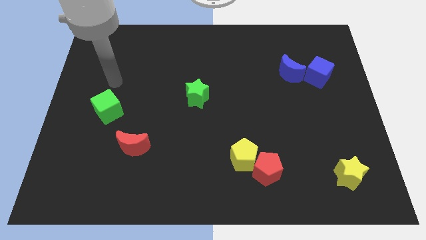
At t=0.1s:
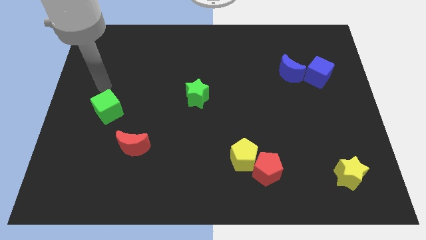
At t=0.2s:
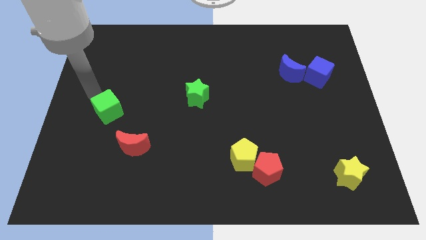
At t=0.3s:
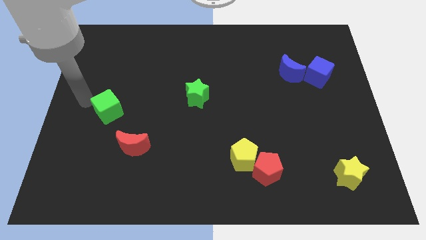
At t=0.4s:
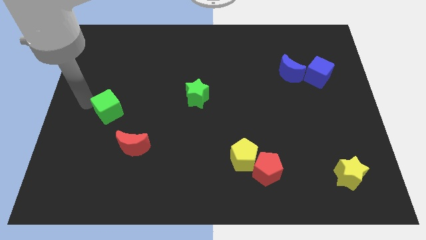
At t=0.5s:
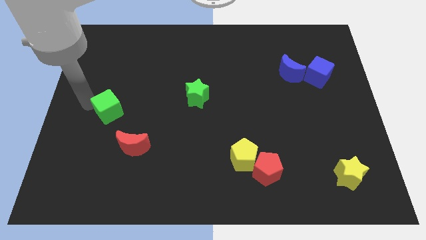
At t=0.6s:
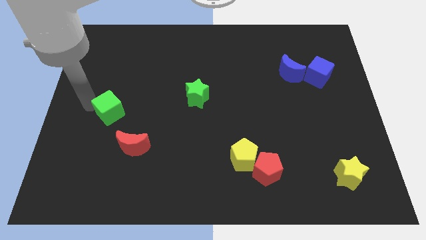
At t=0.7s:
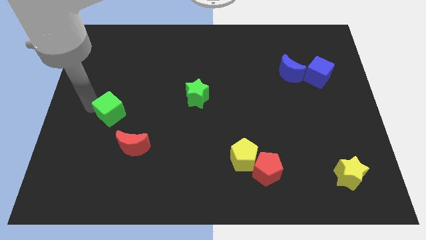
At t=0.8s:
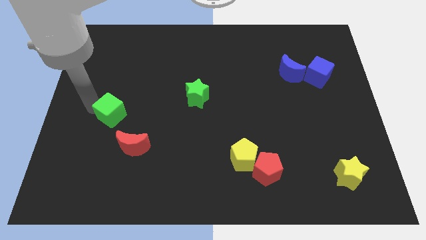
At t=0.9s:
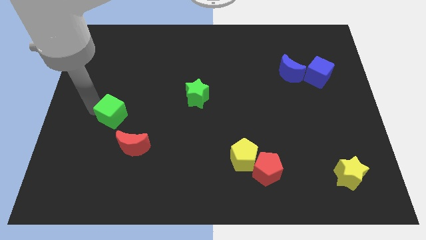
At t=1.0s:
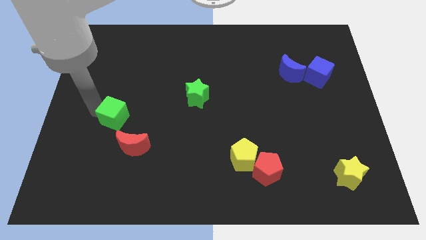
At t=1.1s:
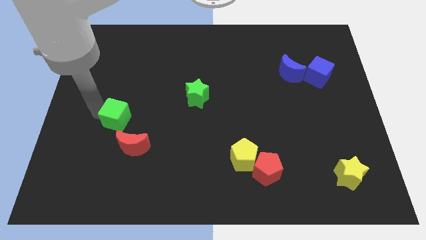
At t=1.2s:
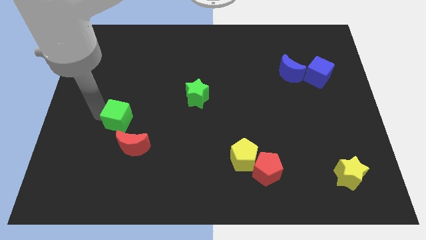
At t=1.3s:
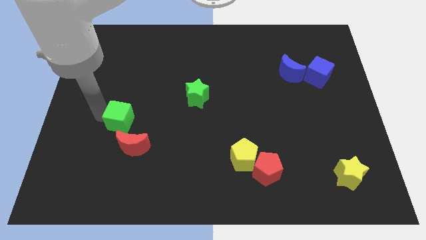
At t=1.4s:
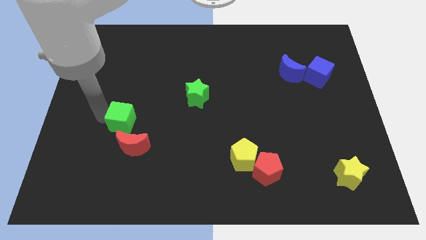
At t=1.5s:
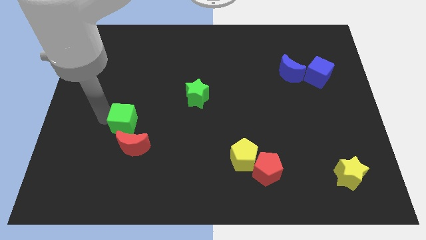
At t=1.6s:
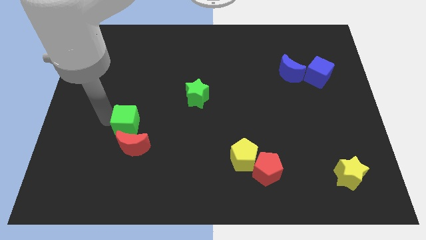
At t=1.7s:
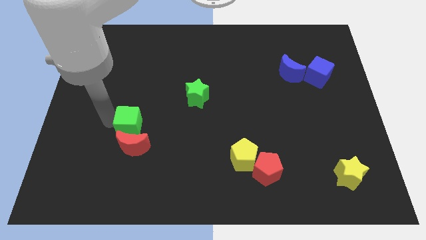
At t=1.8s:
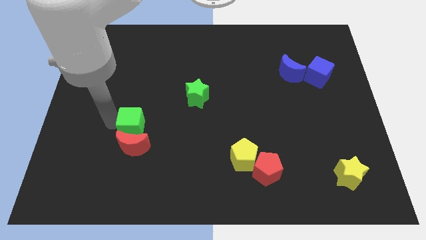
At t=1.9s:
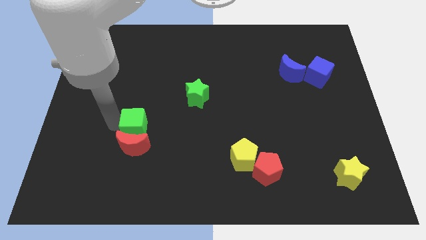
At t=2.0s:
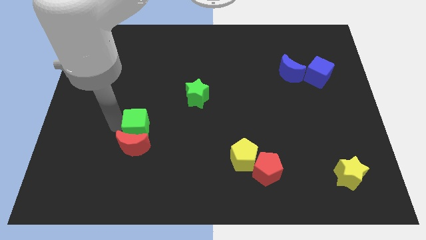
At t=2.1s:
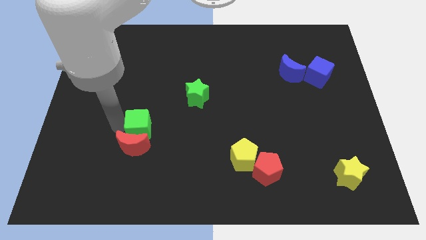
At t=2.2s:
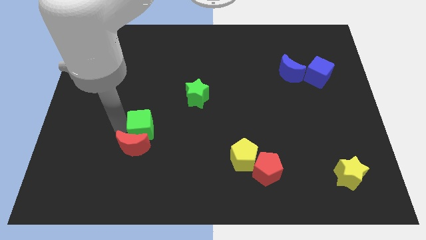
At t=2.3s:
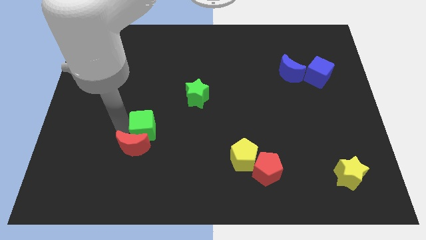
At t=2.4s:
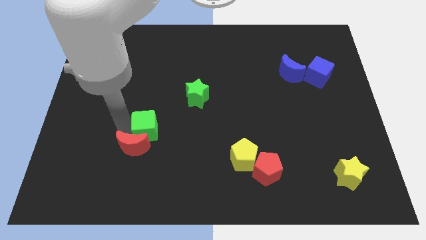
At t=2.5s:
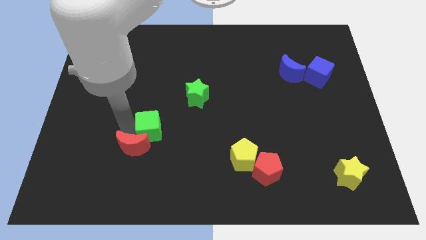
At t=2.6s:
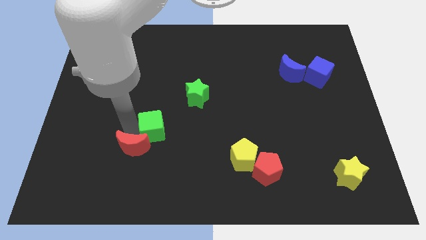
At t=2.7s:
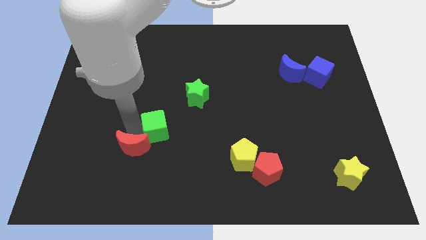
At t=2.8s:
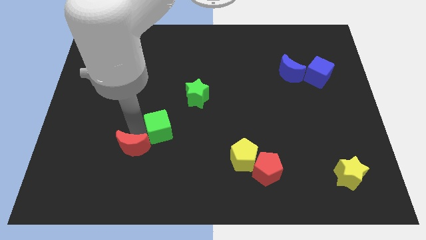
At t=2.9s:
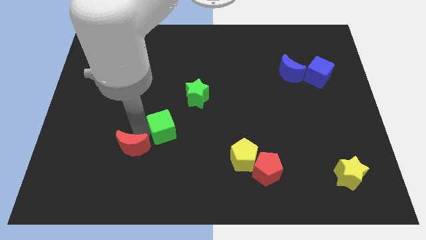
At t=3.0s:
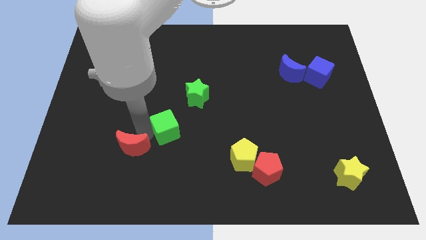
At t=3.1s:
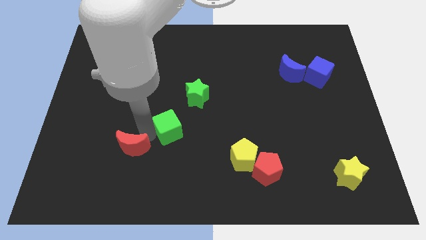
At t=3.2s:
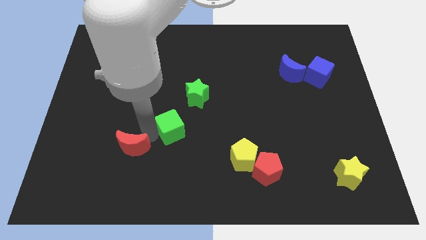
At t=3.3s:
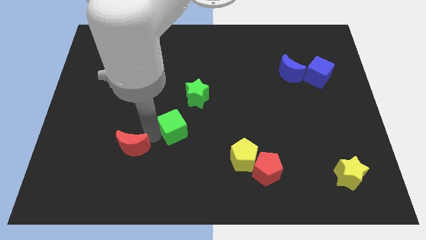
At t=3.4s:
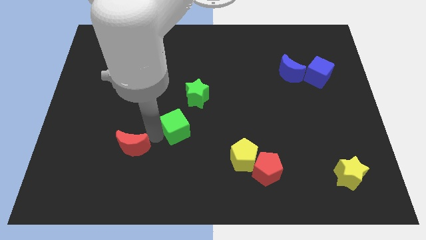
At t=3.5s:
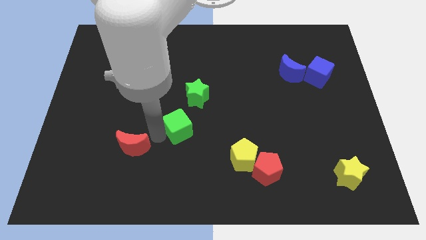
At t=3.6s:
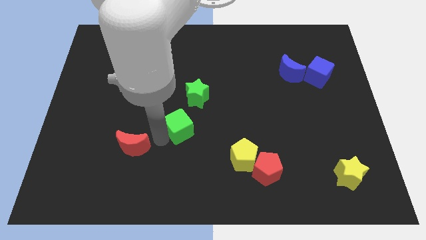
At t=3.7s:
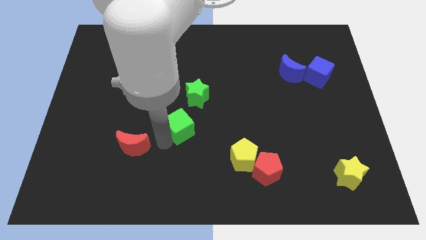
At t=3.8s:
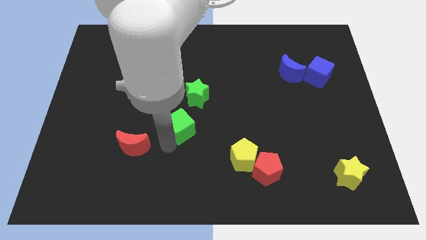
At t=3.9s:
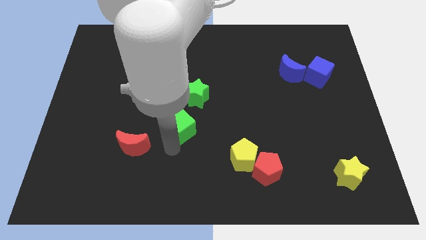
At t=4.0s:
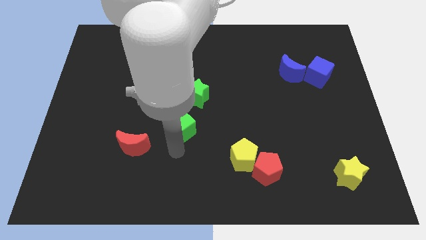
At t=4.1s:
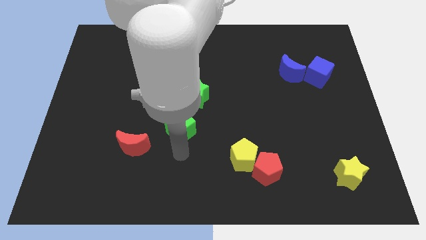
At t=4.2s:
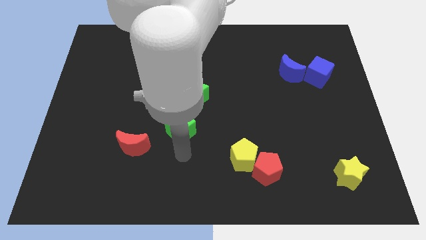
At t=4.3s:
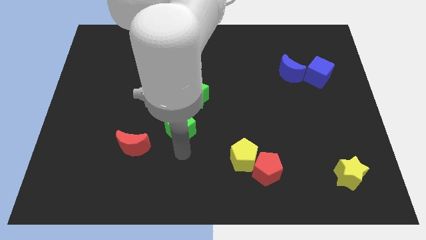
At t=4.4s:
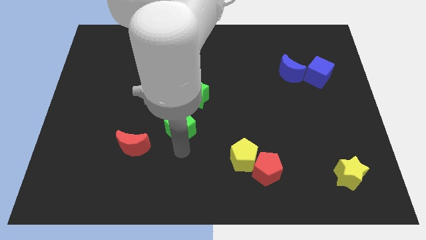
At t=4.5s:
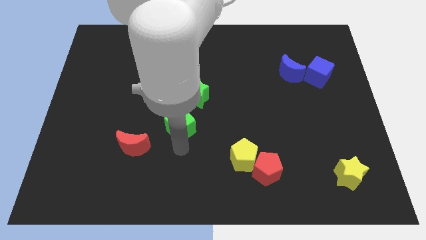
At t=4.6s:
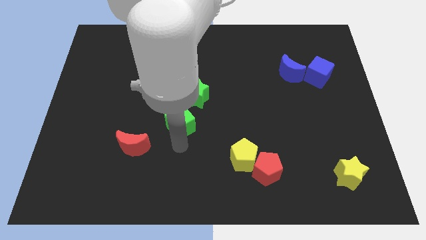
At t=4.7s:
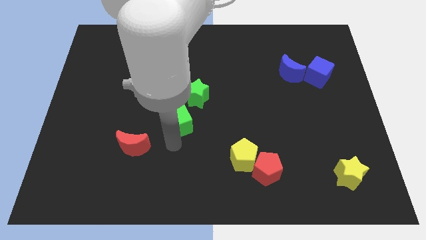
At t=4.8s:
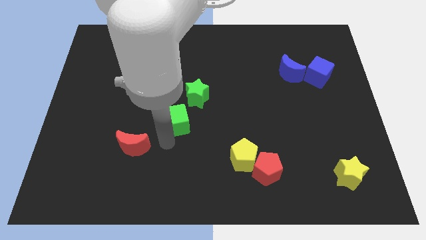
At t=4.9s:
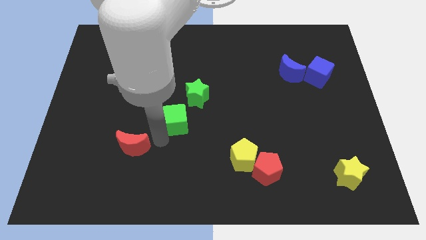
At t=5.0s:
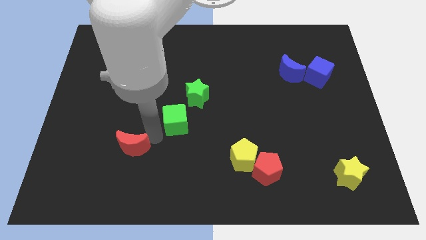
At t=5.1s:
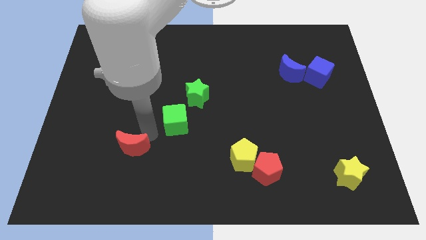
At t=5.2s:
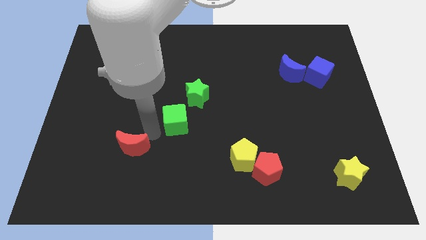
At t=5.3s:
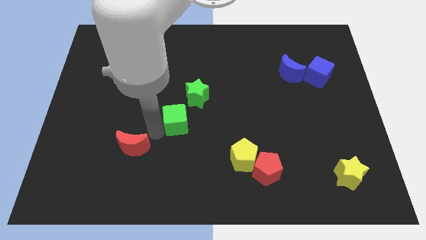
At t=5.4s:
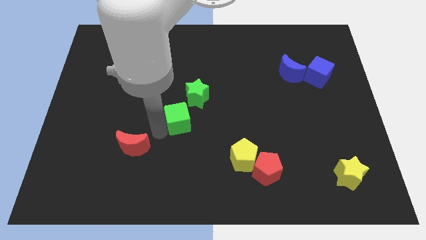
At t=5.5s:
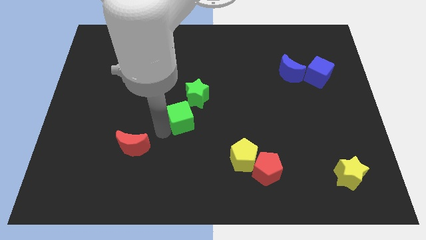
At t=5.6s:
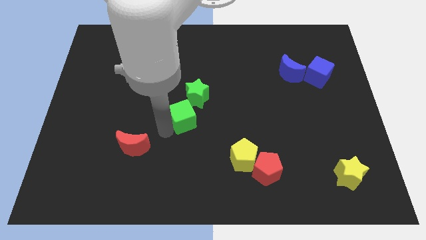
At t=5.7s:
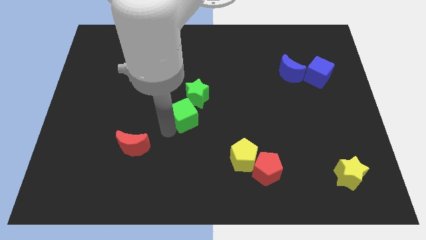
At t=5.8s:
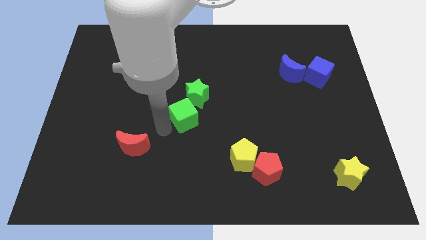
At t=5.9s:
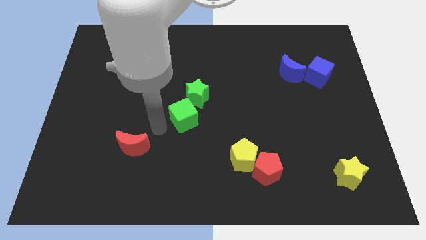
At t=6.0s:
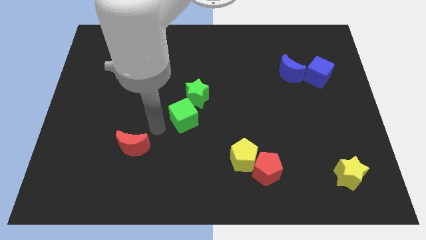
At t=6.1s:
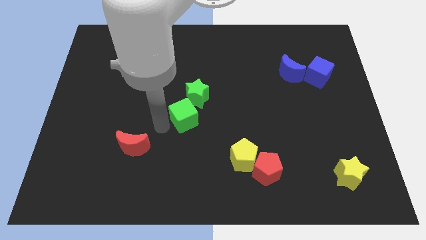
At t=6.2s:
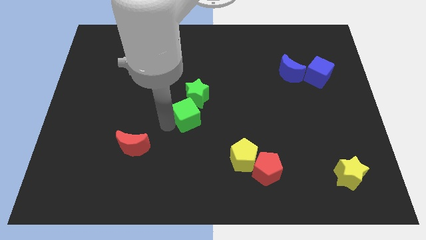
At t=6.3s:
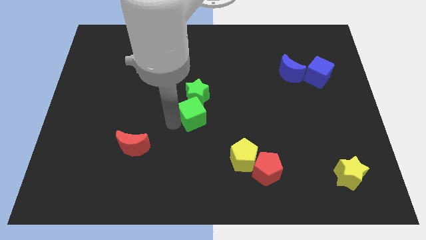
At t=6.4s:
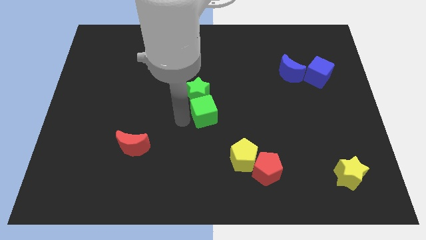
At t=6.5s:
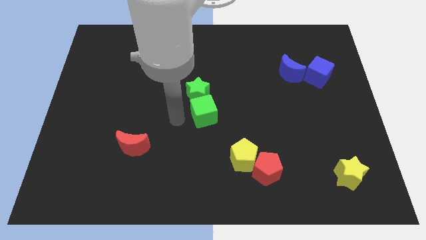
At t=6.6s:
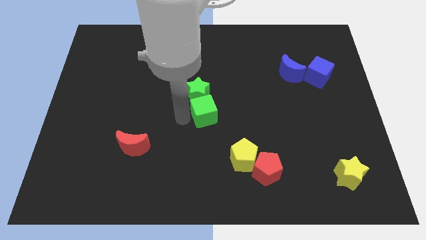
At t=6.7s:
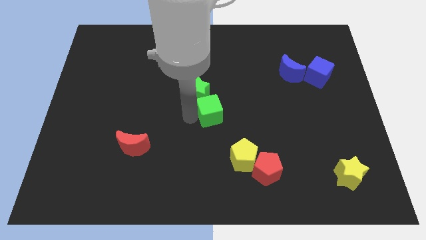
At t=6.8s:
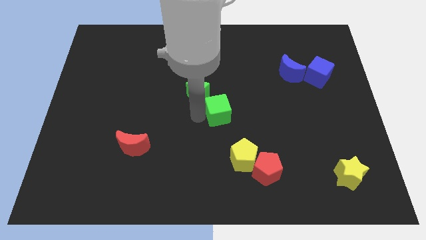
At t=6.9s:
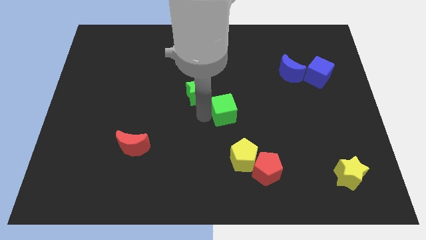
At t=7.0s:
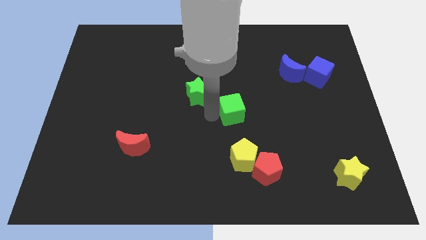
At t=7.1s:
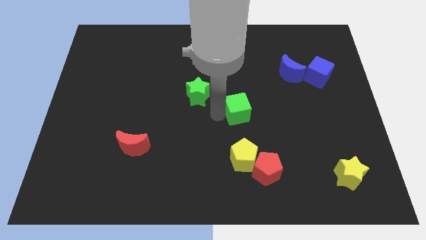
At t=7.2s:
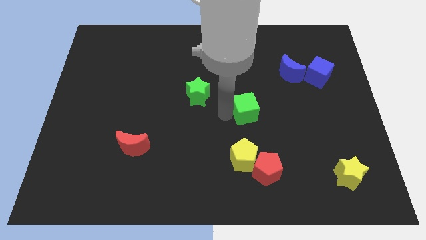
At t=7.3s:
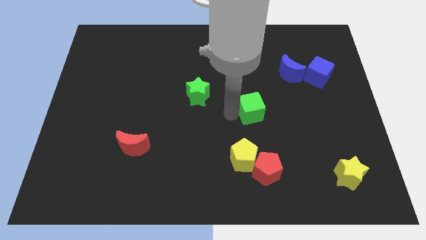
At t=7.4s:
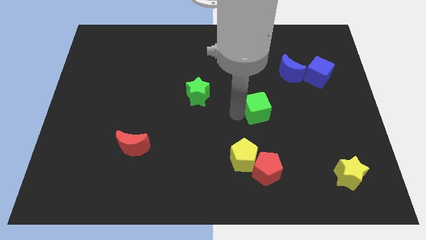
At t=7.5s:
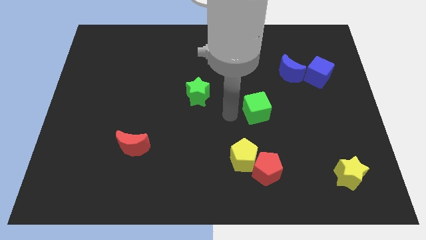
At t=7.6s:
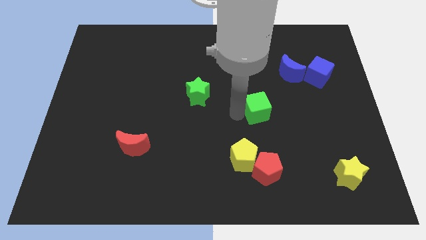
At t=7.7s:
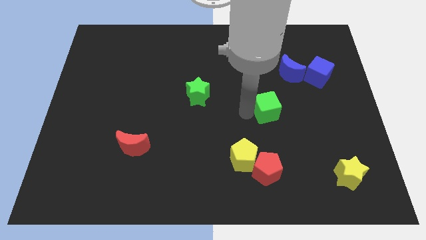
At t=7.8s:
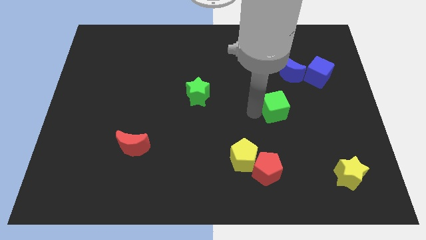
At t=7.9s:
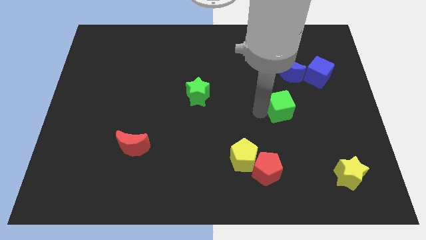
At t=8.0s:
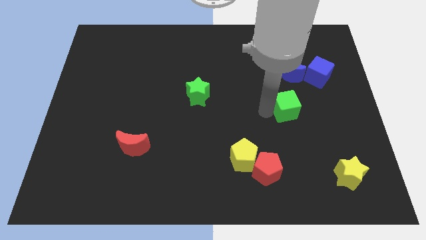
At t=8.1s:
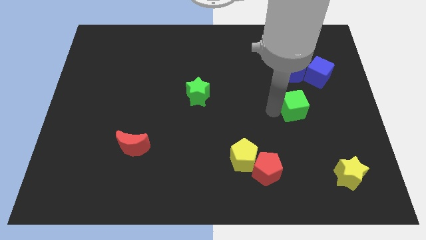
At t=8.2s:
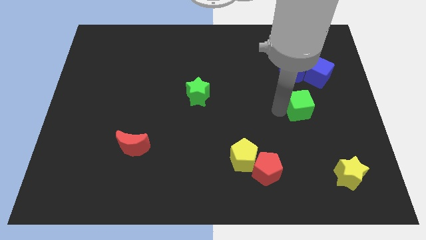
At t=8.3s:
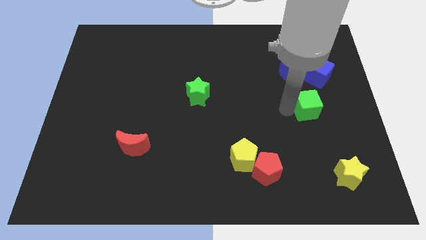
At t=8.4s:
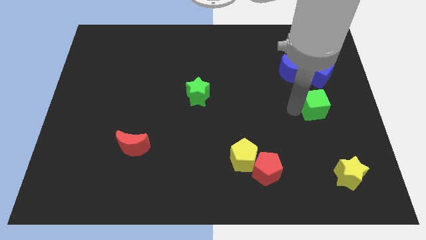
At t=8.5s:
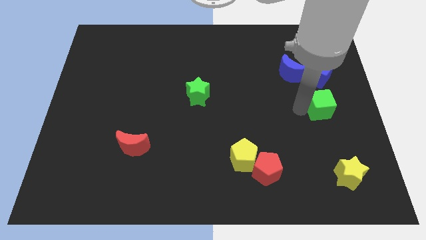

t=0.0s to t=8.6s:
slide the green cube to the right side of the board
